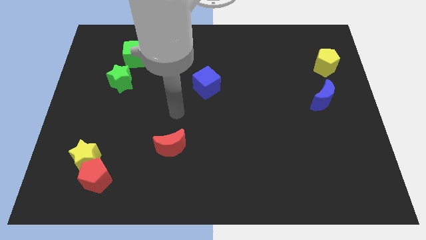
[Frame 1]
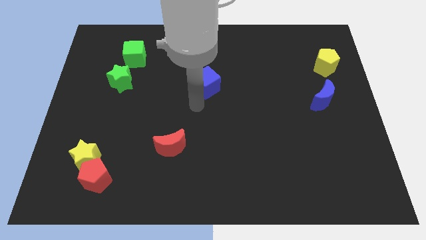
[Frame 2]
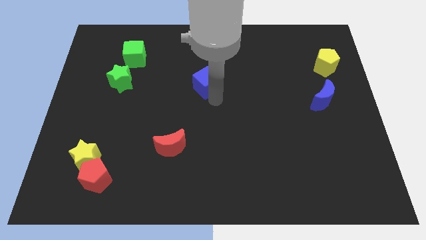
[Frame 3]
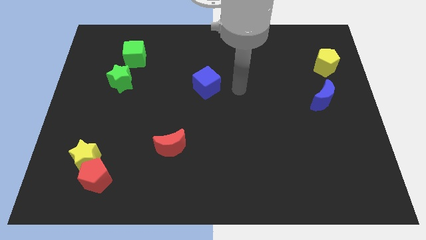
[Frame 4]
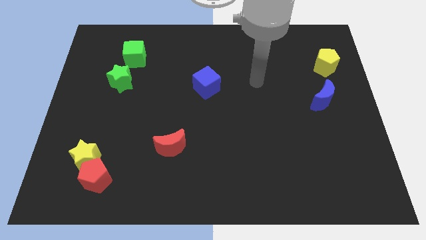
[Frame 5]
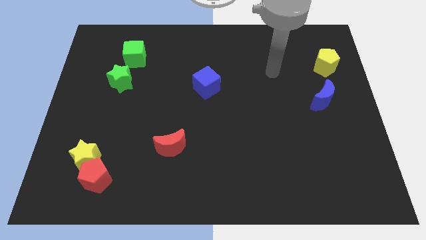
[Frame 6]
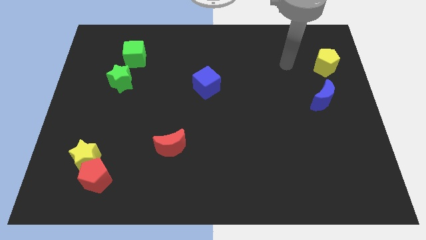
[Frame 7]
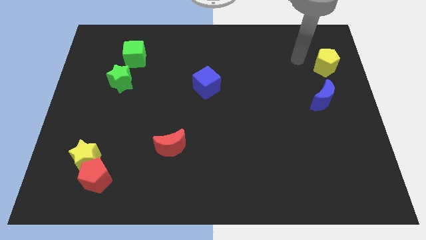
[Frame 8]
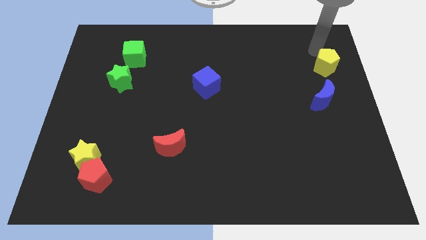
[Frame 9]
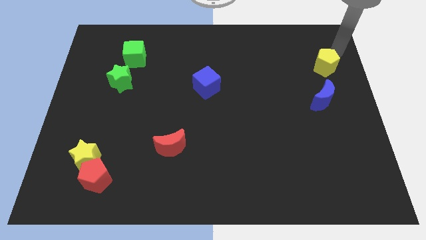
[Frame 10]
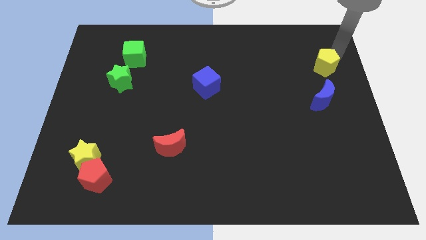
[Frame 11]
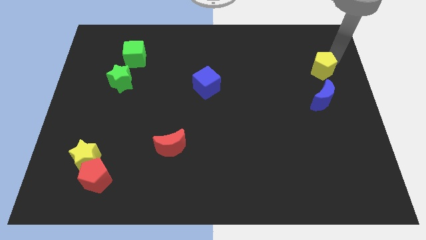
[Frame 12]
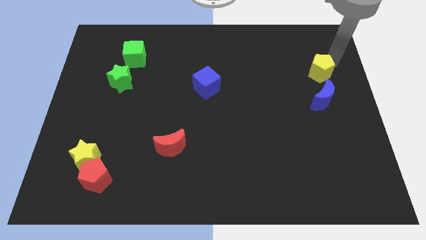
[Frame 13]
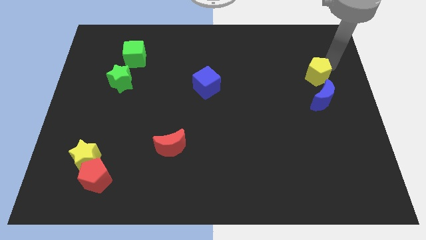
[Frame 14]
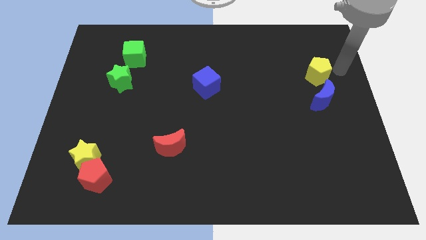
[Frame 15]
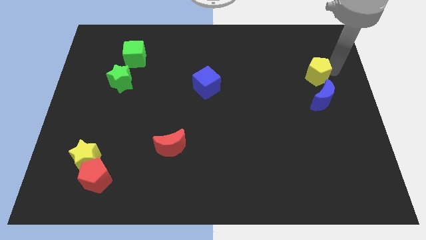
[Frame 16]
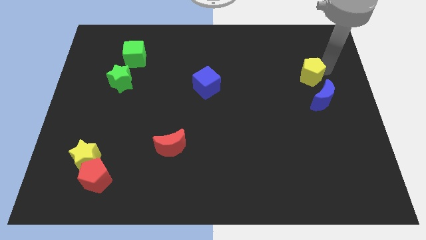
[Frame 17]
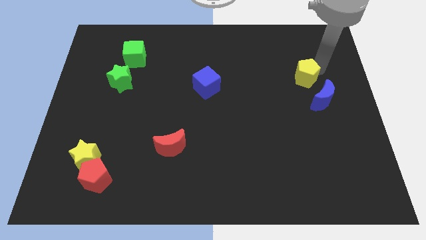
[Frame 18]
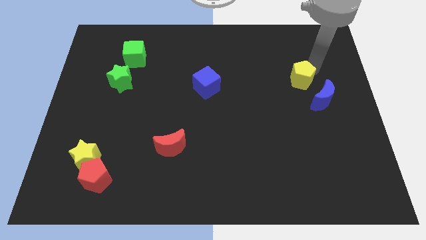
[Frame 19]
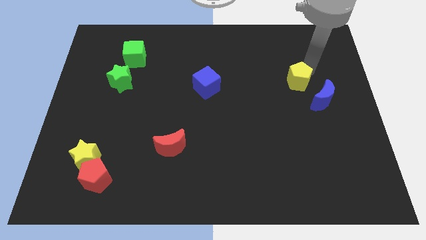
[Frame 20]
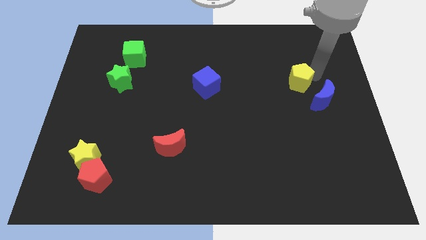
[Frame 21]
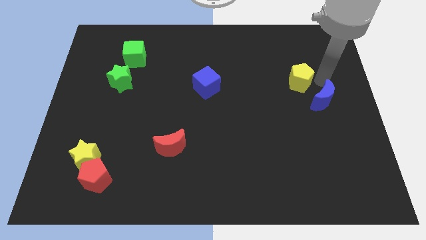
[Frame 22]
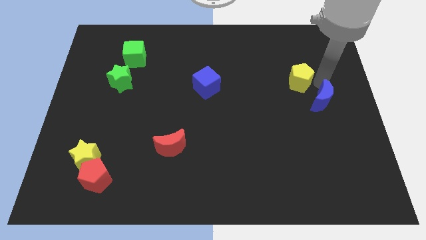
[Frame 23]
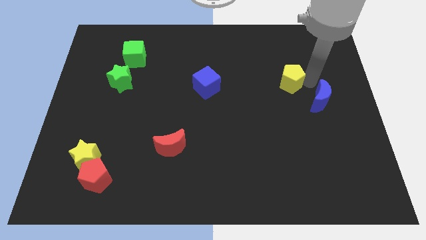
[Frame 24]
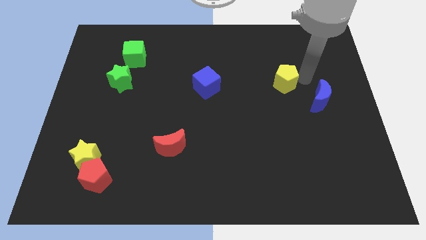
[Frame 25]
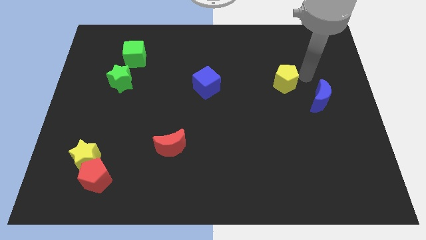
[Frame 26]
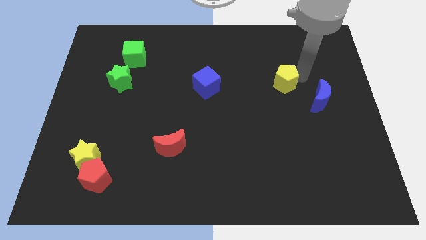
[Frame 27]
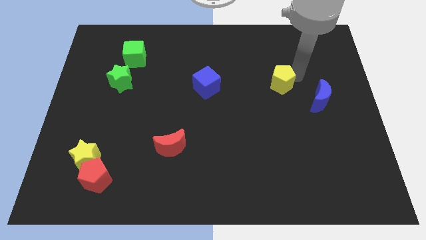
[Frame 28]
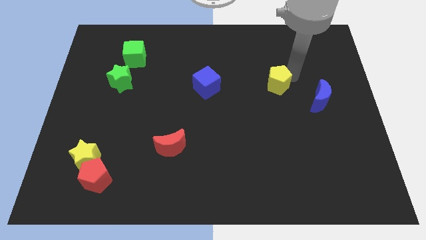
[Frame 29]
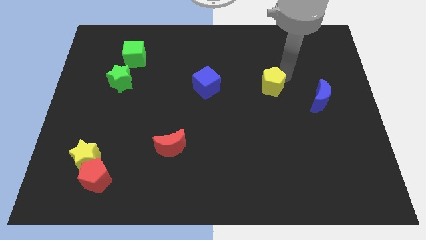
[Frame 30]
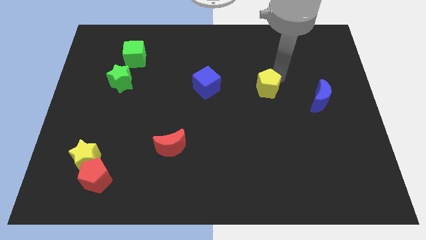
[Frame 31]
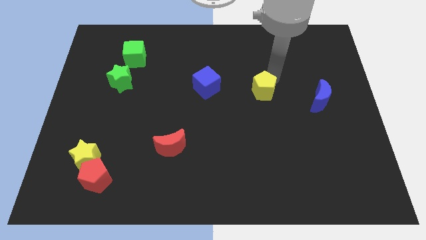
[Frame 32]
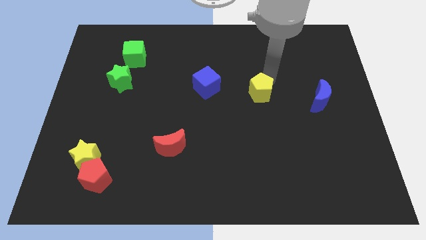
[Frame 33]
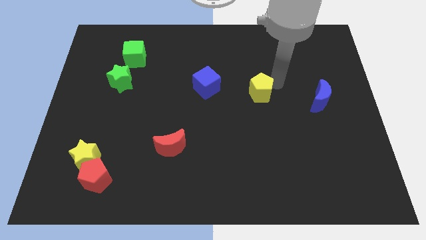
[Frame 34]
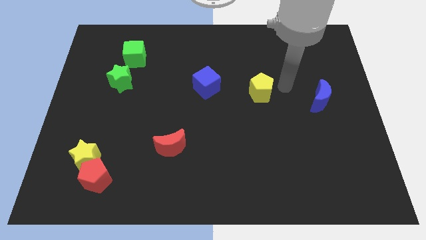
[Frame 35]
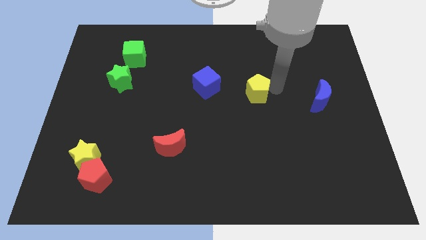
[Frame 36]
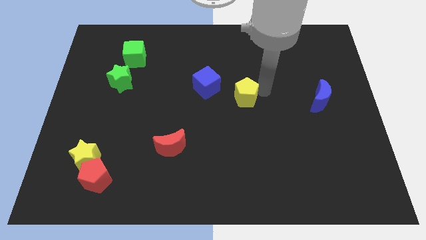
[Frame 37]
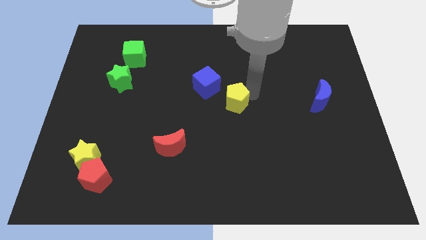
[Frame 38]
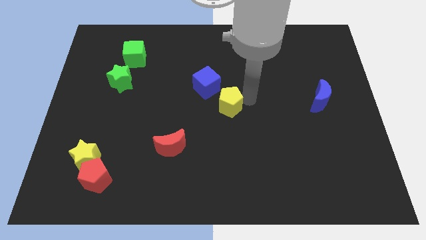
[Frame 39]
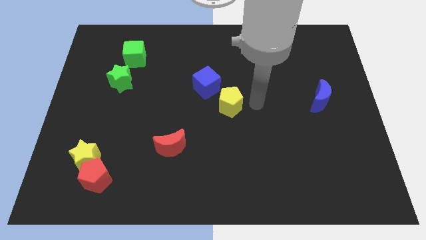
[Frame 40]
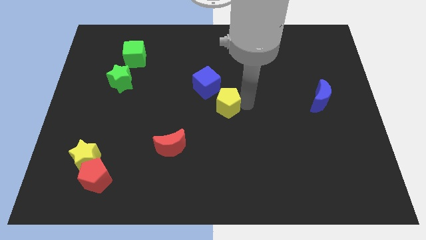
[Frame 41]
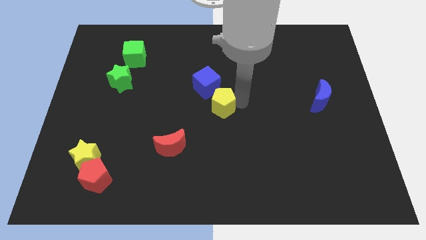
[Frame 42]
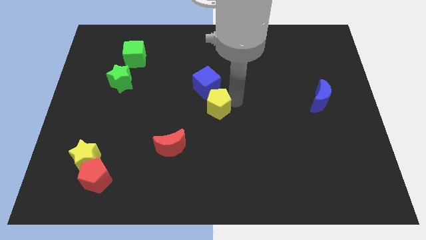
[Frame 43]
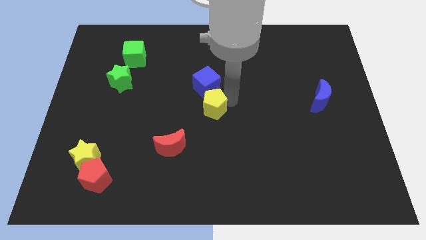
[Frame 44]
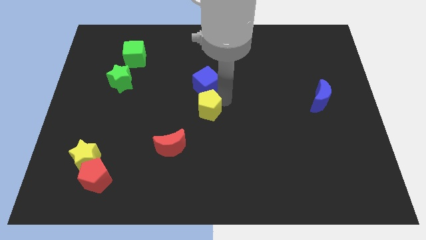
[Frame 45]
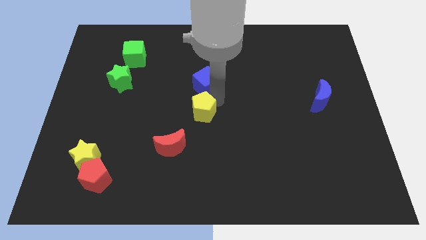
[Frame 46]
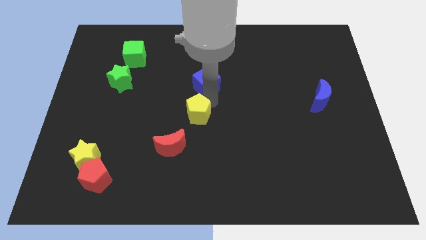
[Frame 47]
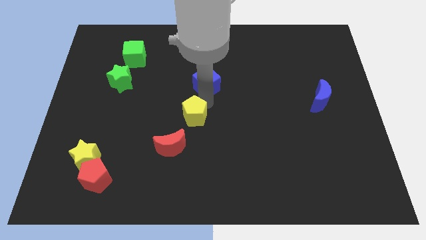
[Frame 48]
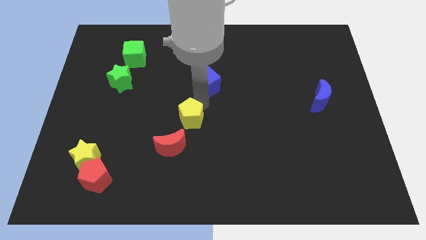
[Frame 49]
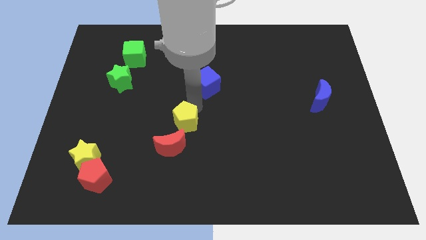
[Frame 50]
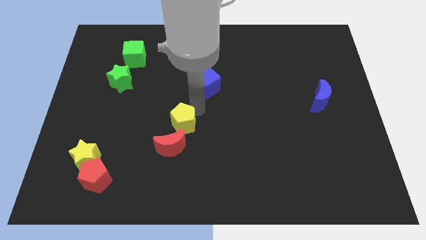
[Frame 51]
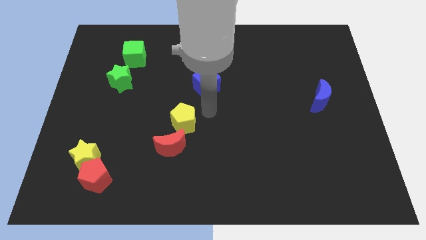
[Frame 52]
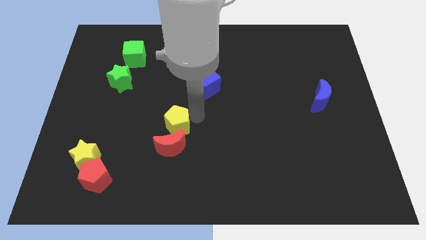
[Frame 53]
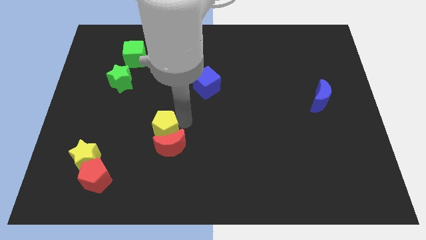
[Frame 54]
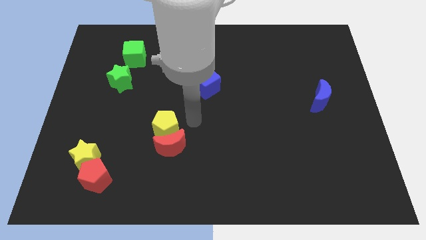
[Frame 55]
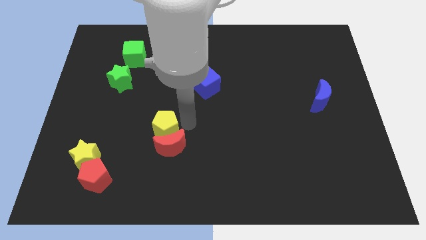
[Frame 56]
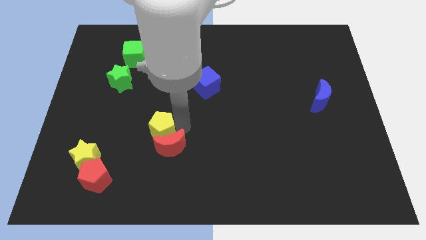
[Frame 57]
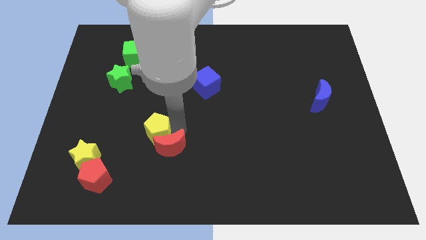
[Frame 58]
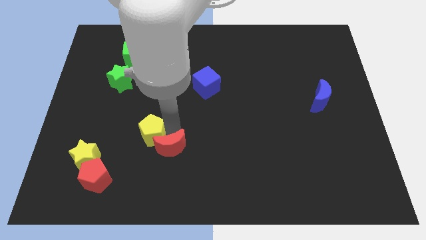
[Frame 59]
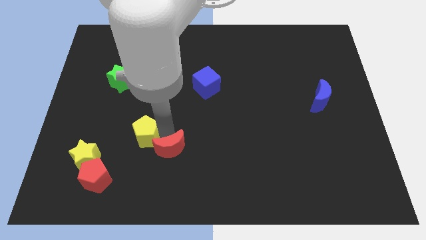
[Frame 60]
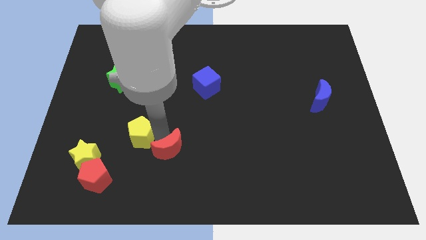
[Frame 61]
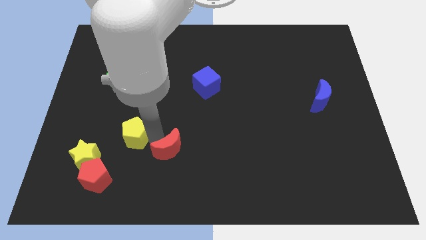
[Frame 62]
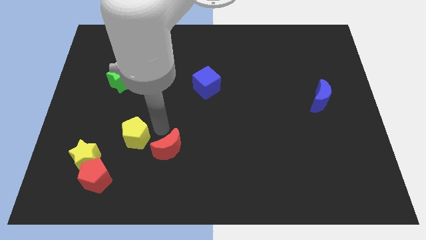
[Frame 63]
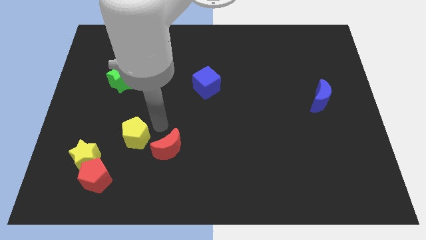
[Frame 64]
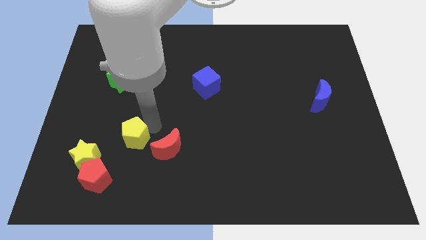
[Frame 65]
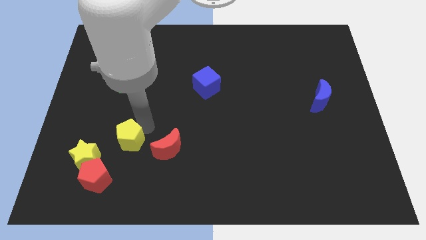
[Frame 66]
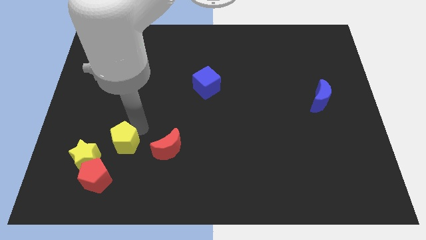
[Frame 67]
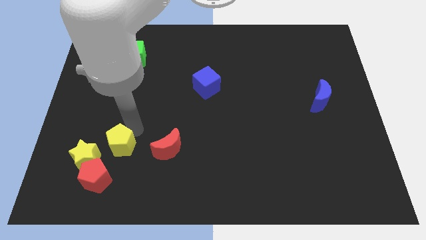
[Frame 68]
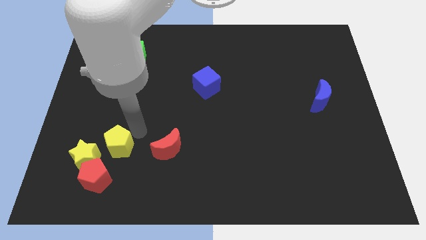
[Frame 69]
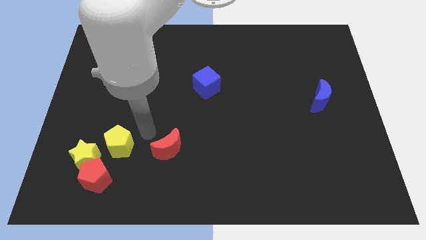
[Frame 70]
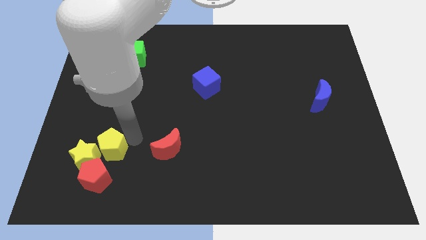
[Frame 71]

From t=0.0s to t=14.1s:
put the yellow pentagon towards the yellow star

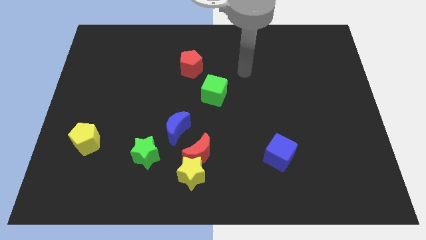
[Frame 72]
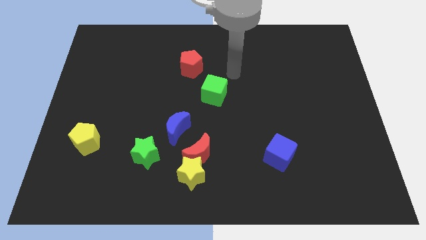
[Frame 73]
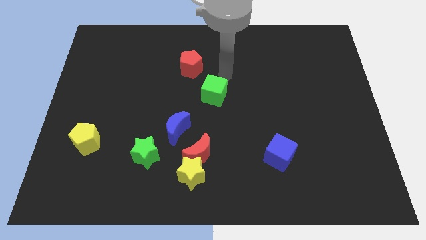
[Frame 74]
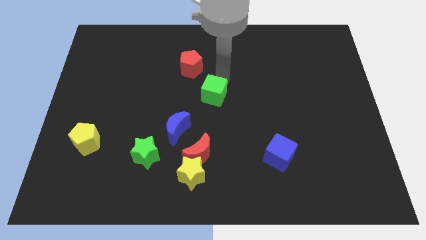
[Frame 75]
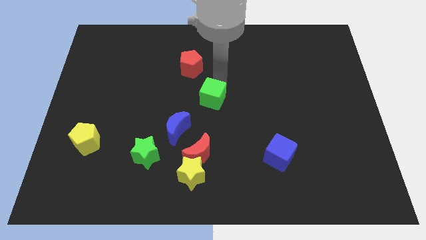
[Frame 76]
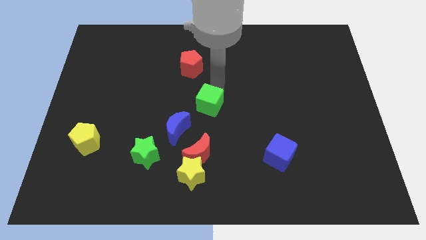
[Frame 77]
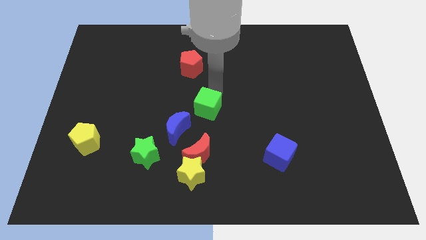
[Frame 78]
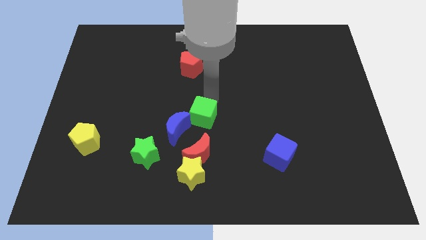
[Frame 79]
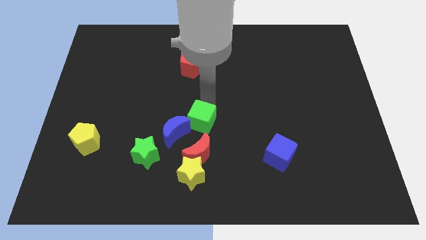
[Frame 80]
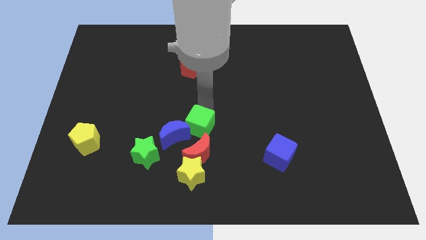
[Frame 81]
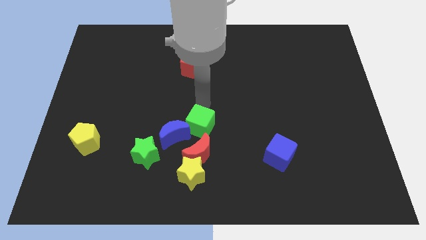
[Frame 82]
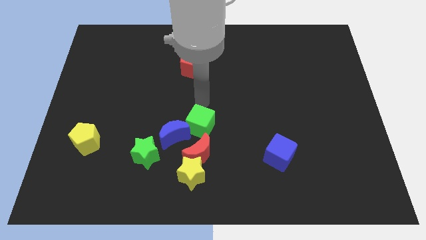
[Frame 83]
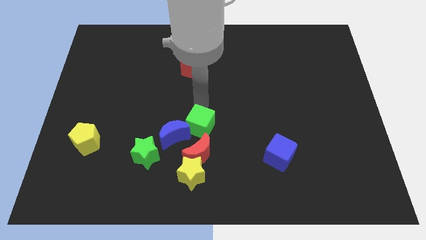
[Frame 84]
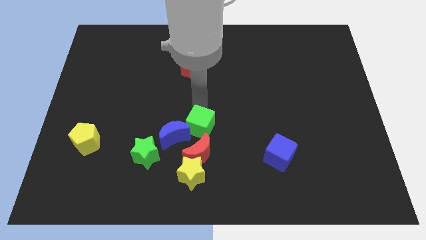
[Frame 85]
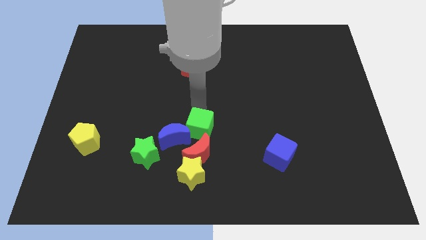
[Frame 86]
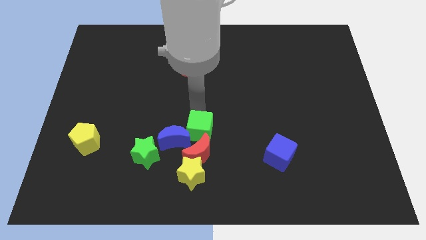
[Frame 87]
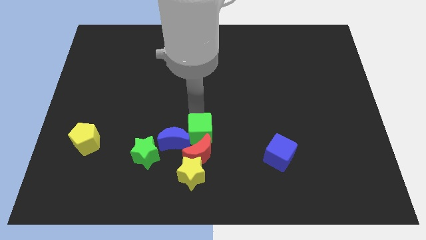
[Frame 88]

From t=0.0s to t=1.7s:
put the green cube next to the red moon
